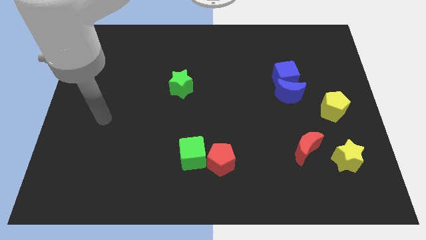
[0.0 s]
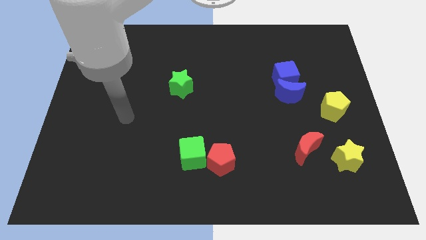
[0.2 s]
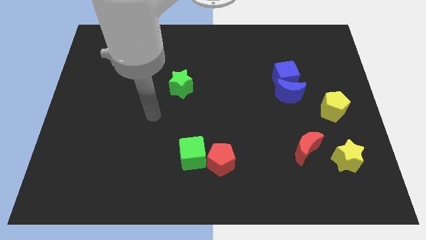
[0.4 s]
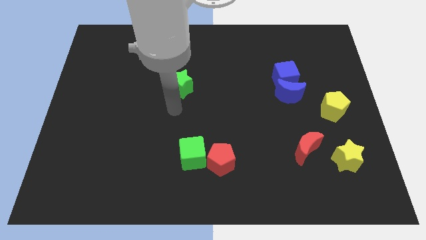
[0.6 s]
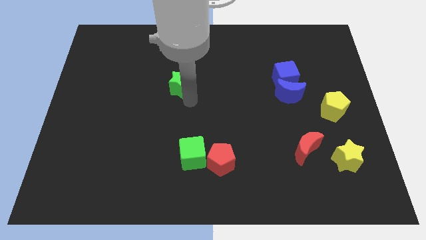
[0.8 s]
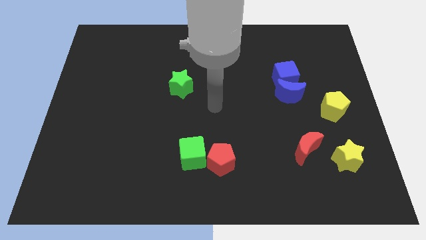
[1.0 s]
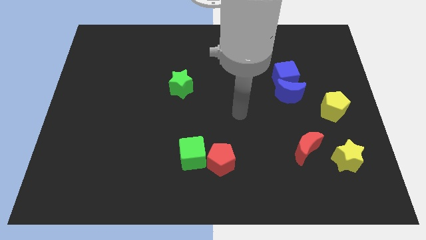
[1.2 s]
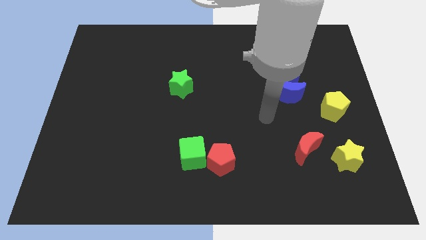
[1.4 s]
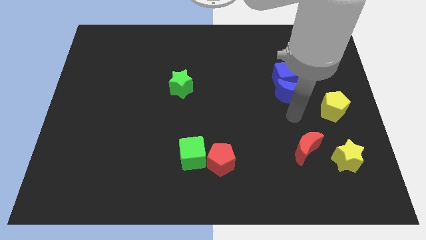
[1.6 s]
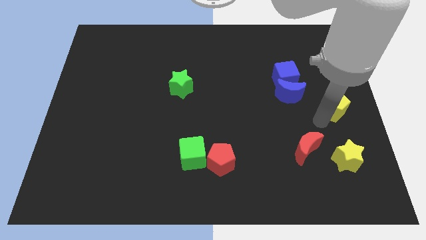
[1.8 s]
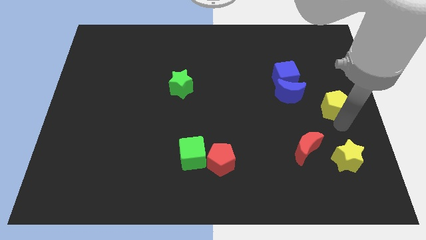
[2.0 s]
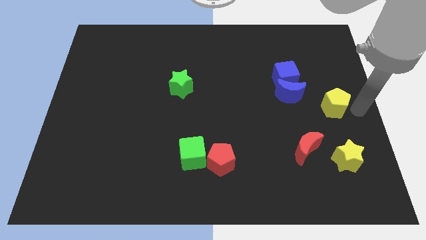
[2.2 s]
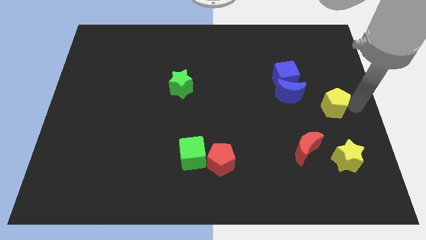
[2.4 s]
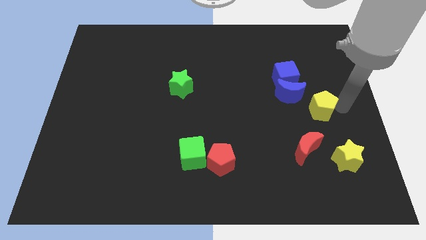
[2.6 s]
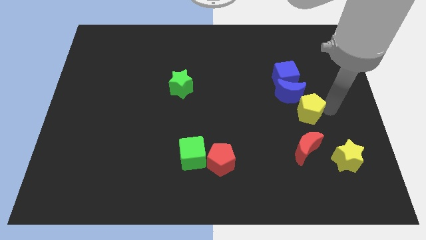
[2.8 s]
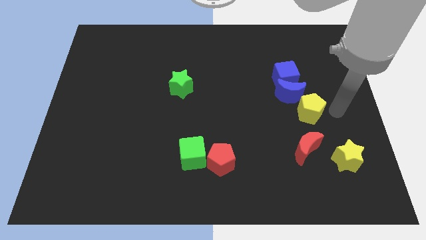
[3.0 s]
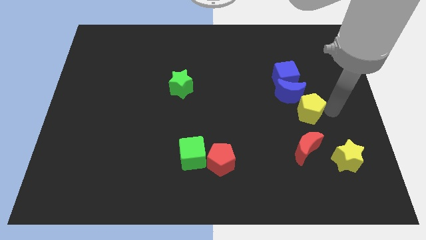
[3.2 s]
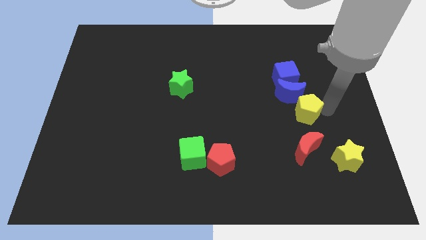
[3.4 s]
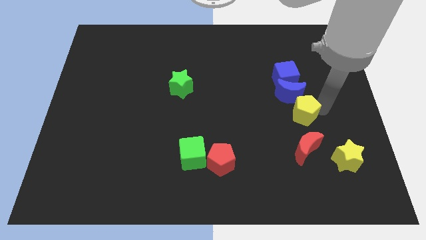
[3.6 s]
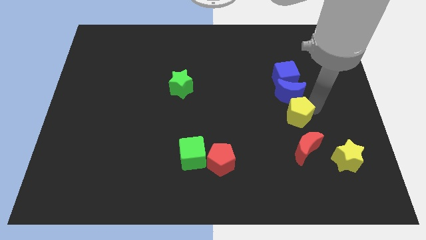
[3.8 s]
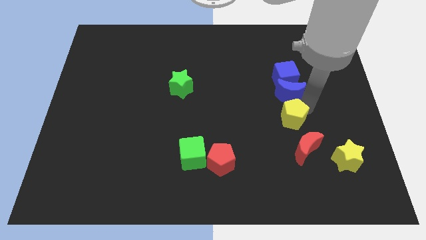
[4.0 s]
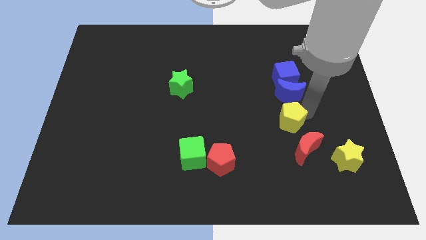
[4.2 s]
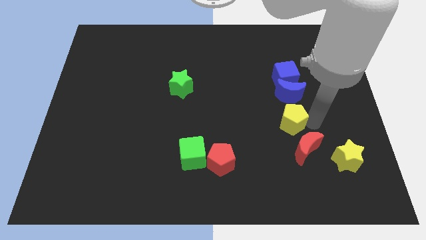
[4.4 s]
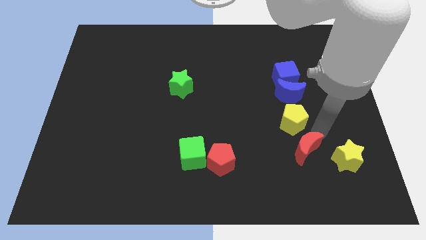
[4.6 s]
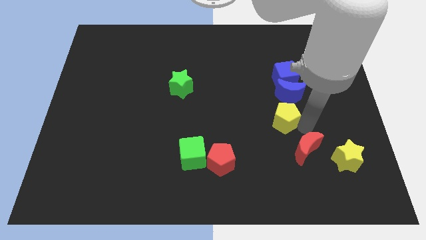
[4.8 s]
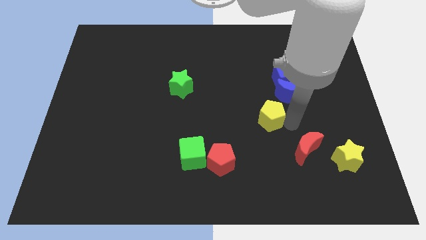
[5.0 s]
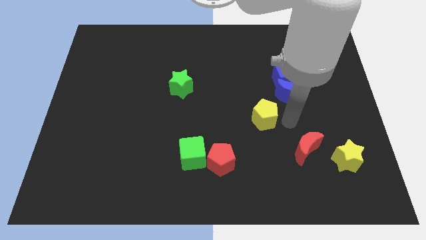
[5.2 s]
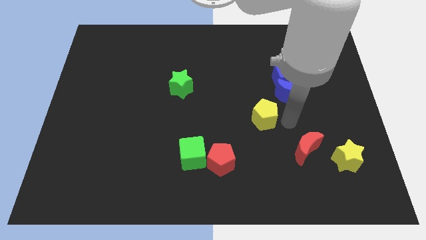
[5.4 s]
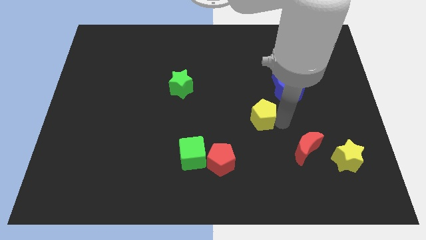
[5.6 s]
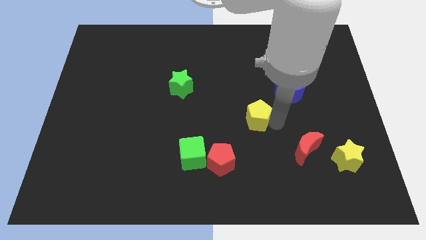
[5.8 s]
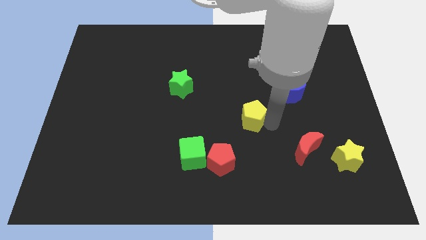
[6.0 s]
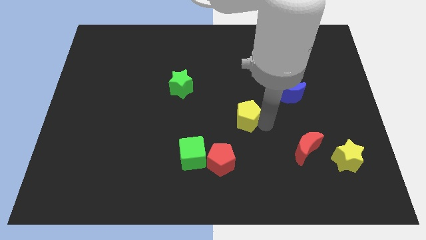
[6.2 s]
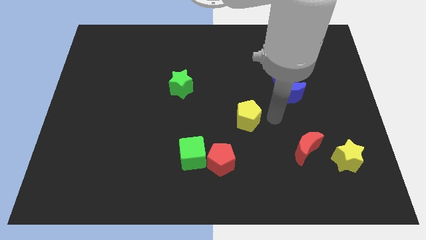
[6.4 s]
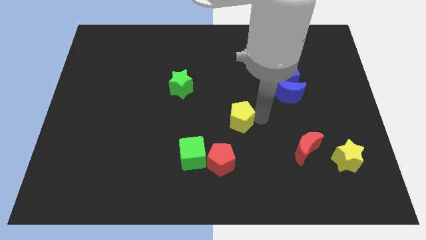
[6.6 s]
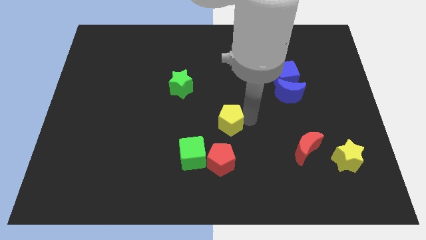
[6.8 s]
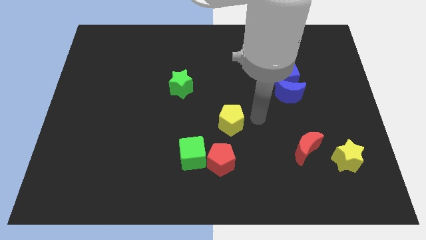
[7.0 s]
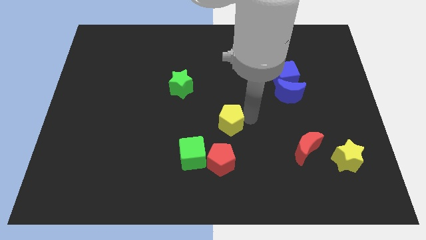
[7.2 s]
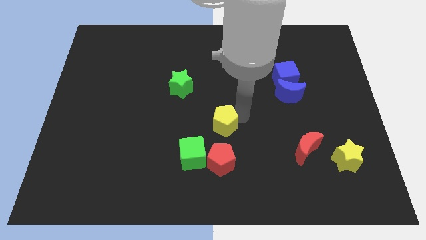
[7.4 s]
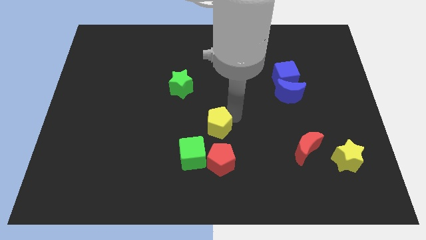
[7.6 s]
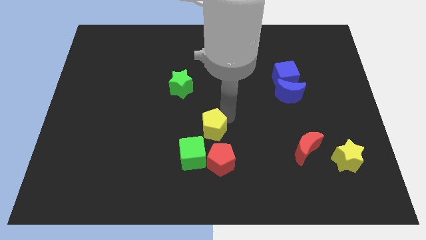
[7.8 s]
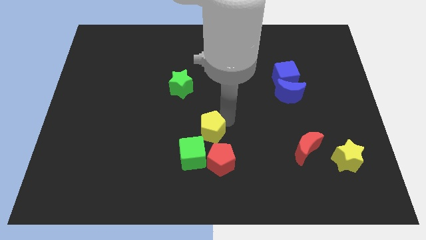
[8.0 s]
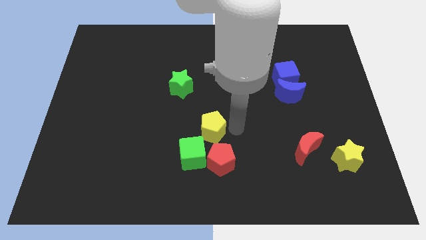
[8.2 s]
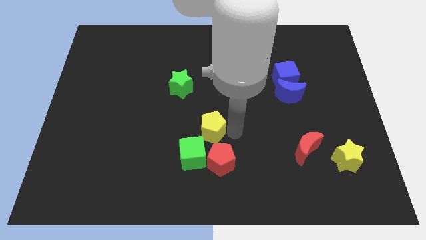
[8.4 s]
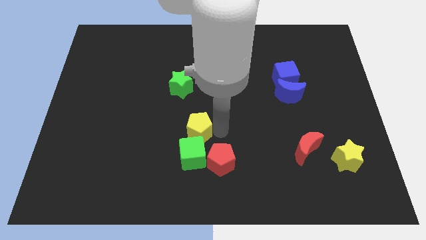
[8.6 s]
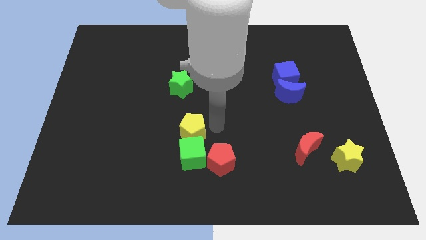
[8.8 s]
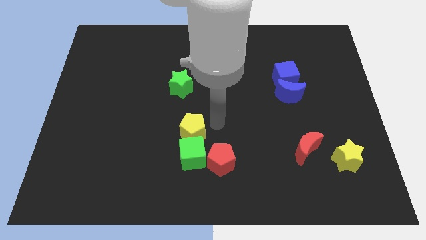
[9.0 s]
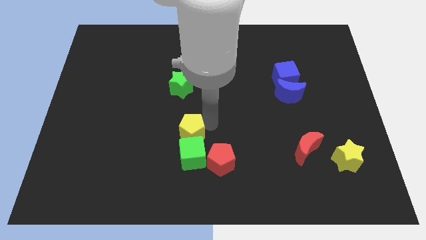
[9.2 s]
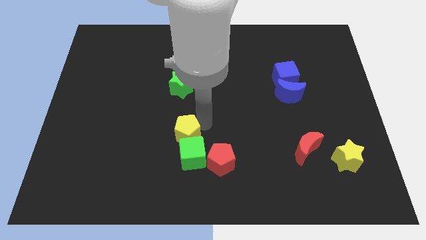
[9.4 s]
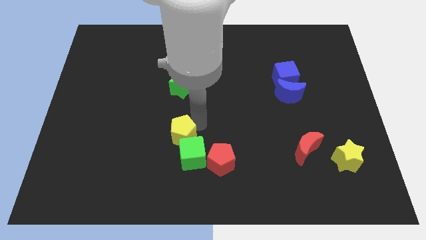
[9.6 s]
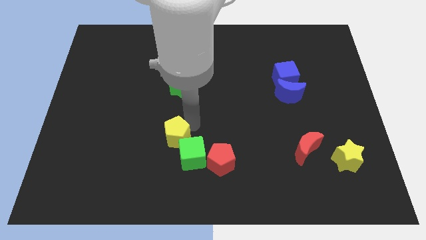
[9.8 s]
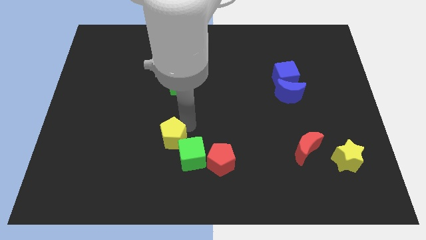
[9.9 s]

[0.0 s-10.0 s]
put the yellow pentagon to the left side of the green cube

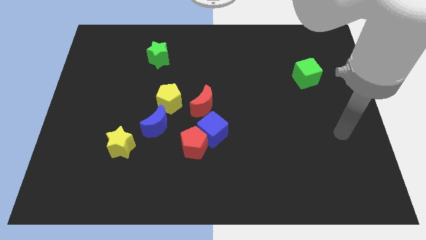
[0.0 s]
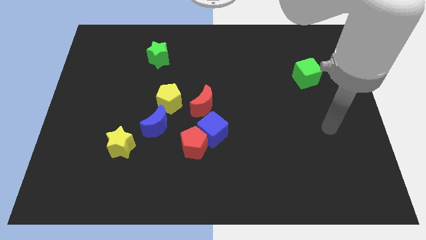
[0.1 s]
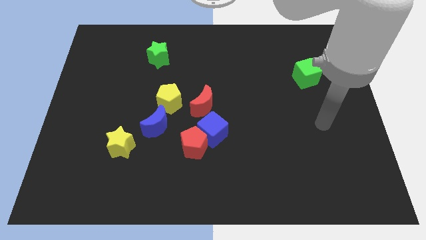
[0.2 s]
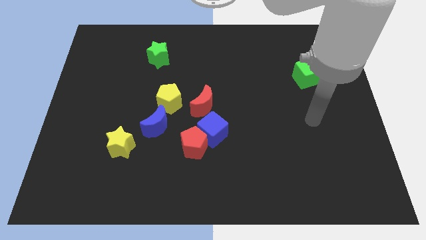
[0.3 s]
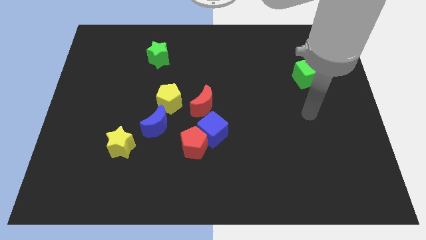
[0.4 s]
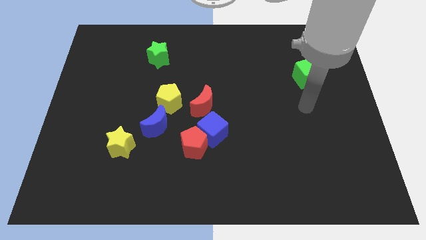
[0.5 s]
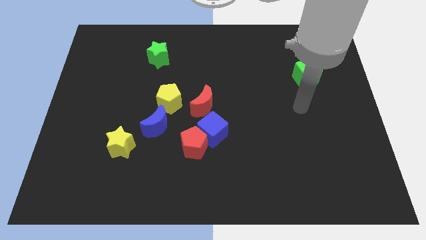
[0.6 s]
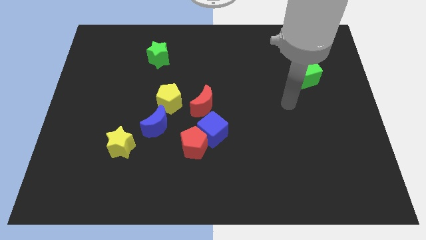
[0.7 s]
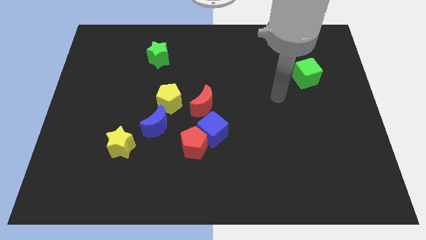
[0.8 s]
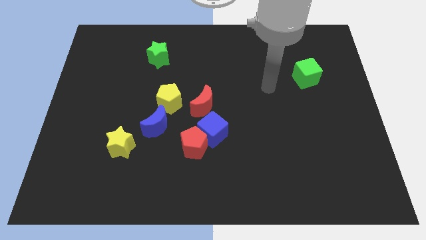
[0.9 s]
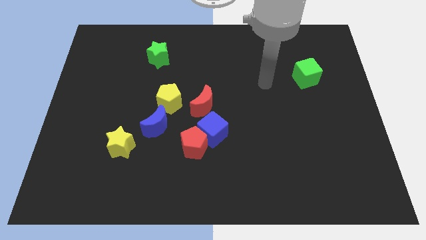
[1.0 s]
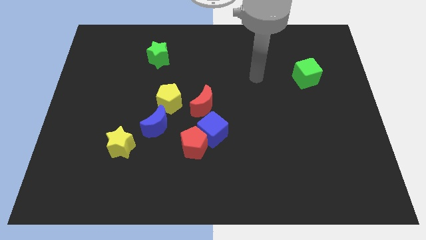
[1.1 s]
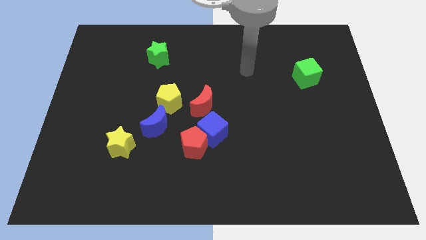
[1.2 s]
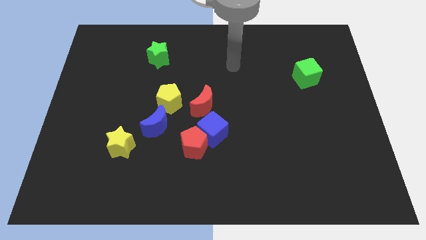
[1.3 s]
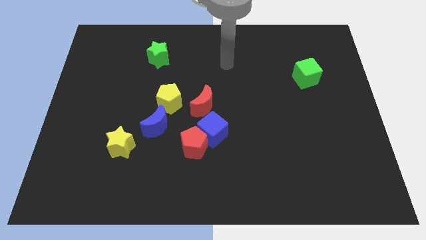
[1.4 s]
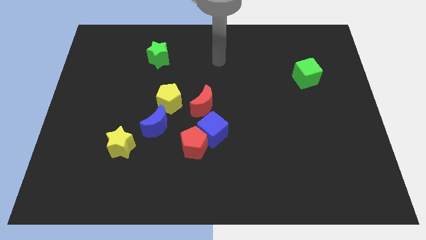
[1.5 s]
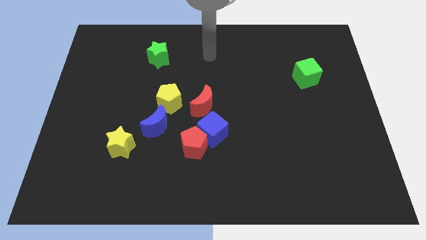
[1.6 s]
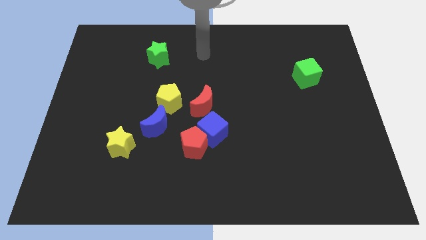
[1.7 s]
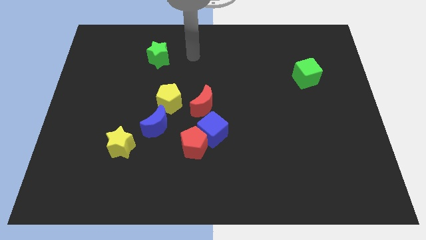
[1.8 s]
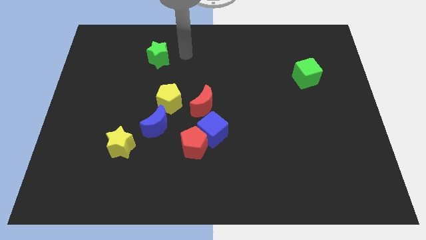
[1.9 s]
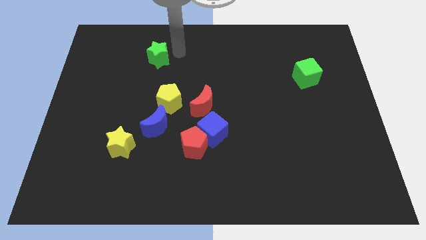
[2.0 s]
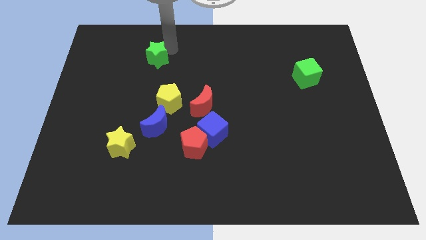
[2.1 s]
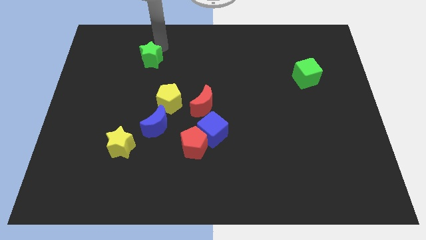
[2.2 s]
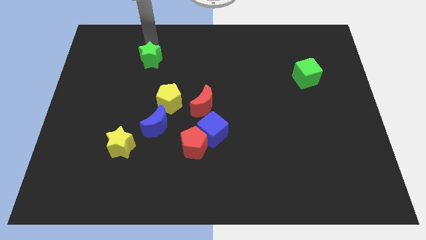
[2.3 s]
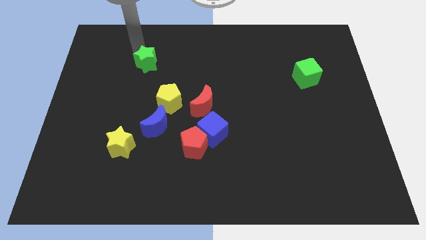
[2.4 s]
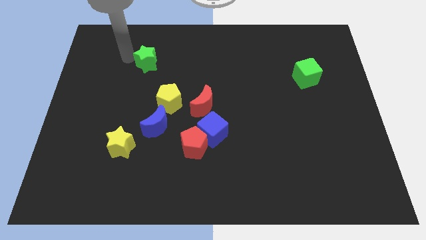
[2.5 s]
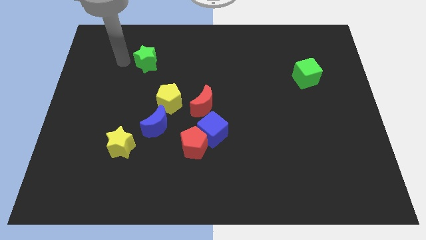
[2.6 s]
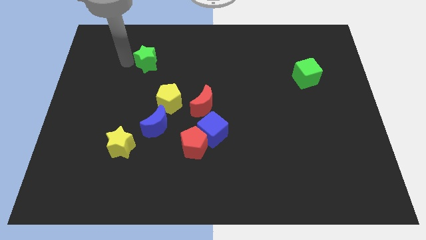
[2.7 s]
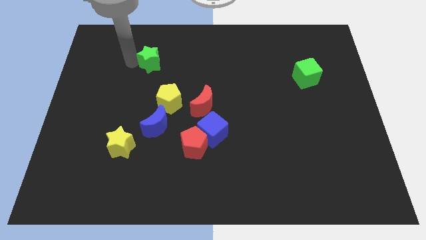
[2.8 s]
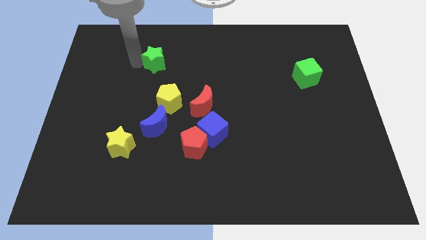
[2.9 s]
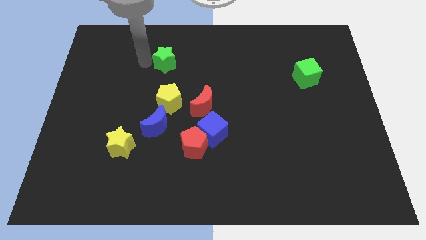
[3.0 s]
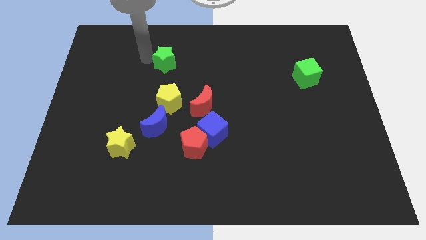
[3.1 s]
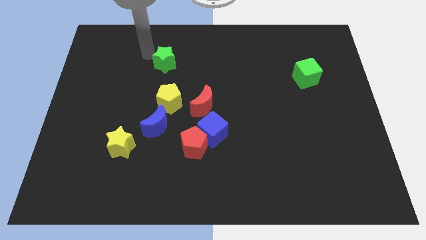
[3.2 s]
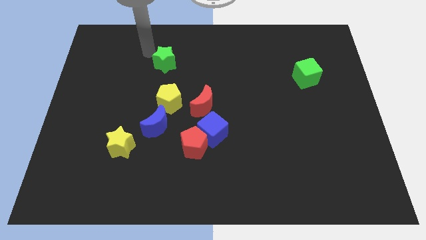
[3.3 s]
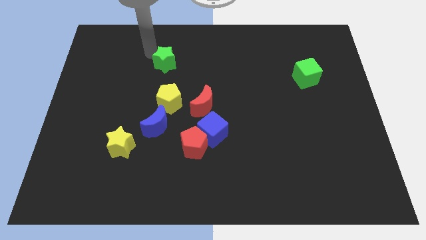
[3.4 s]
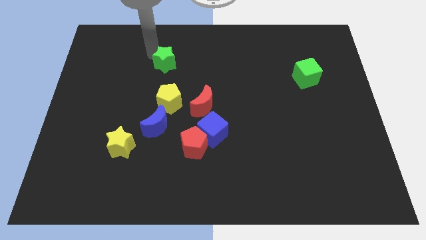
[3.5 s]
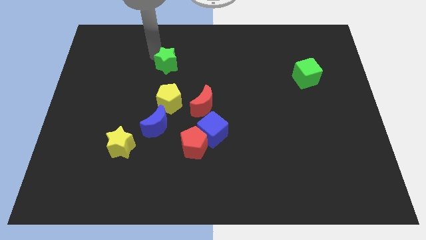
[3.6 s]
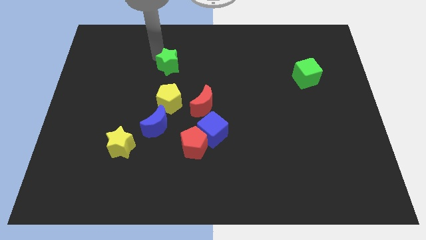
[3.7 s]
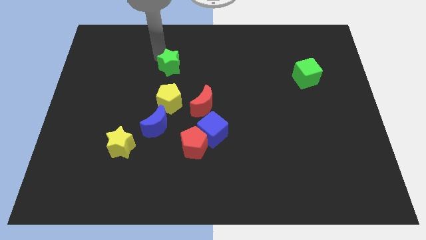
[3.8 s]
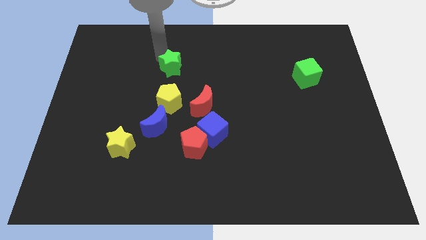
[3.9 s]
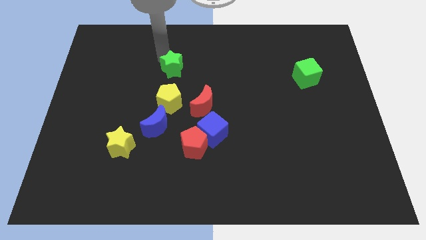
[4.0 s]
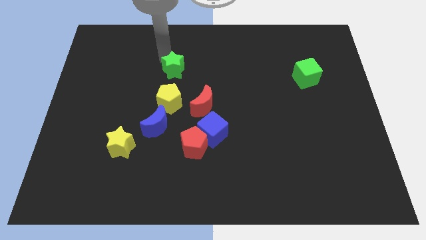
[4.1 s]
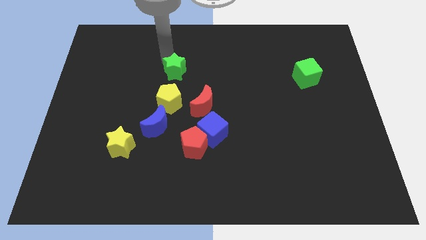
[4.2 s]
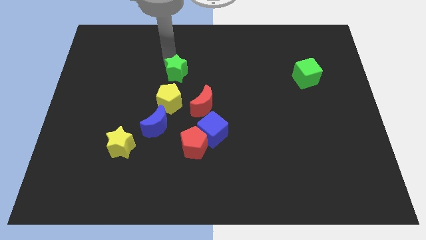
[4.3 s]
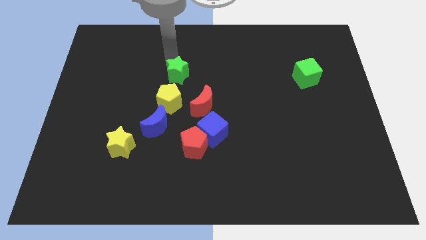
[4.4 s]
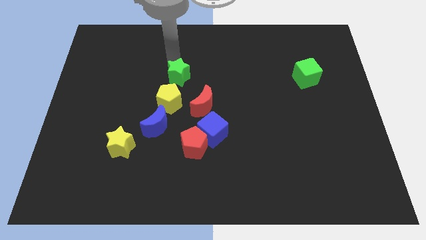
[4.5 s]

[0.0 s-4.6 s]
put the green star diagonally up and to the right of the yellow pentagon
